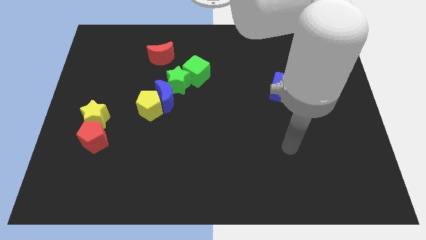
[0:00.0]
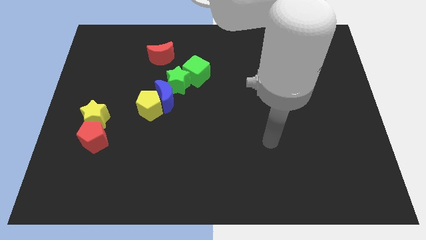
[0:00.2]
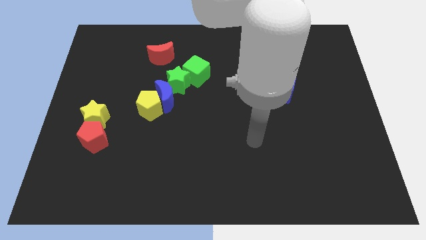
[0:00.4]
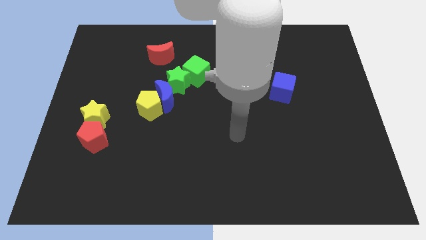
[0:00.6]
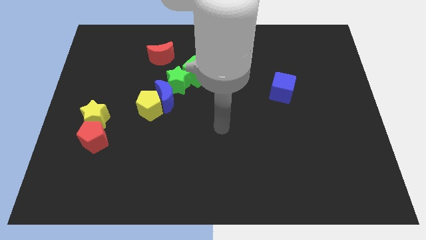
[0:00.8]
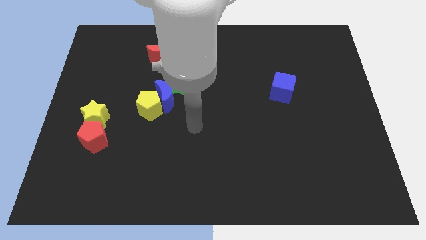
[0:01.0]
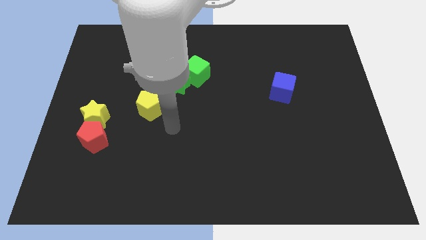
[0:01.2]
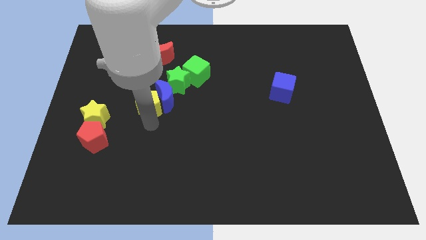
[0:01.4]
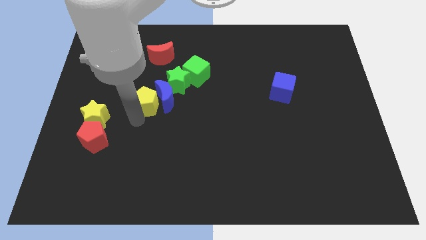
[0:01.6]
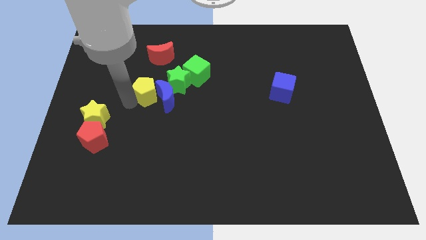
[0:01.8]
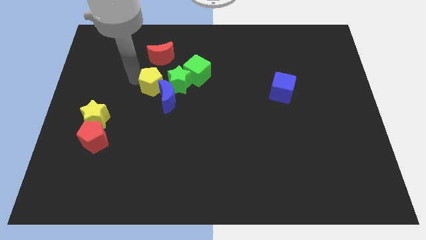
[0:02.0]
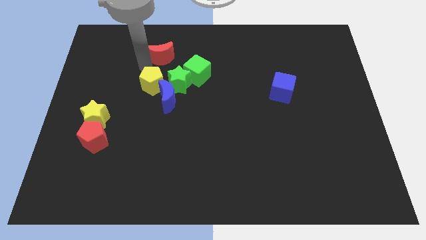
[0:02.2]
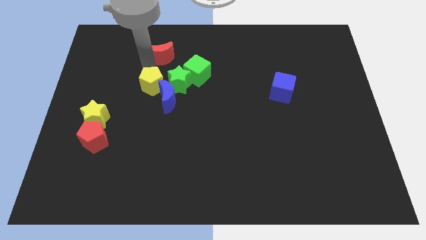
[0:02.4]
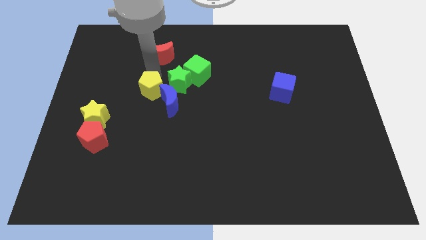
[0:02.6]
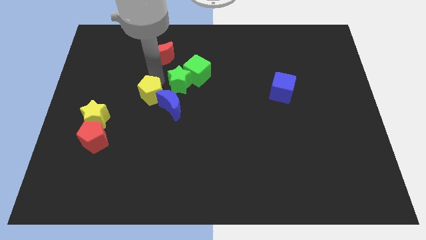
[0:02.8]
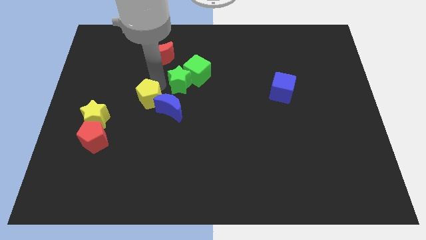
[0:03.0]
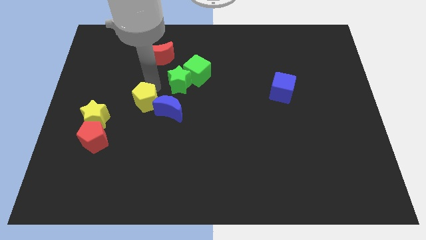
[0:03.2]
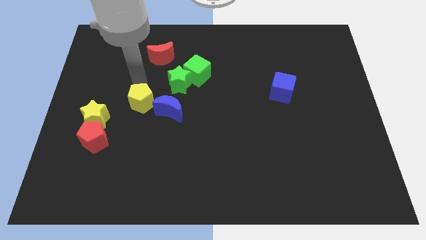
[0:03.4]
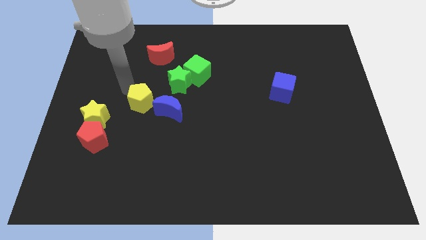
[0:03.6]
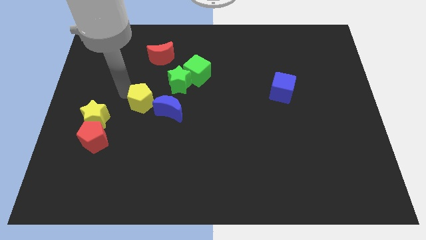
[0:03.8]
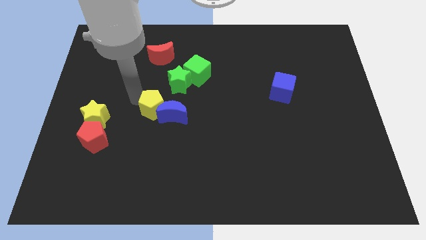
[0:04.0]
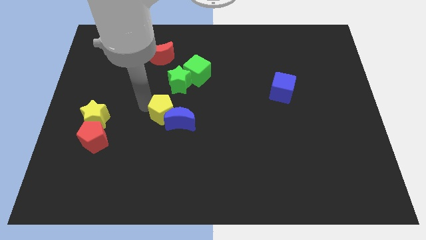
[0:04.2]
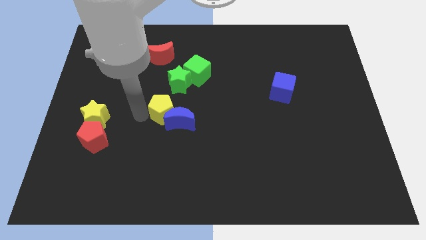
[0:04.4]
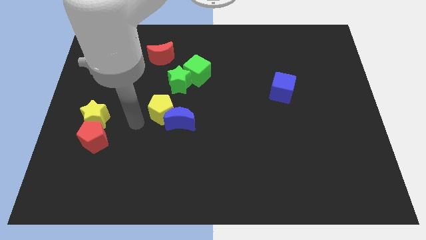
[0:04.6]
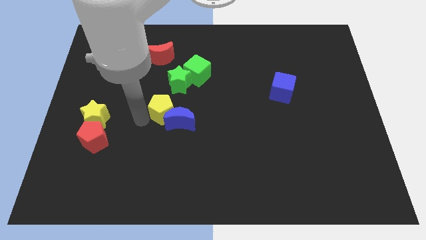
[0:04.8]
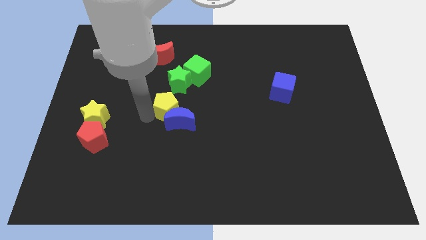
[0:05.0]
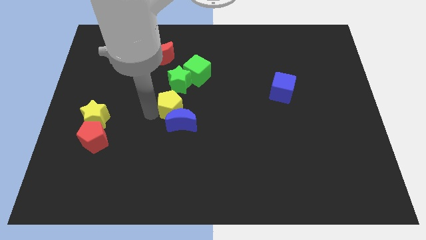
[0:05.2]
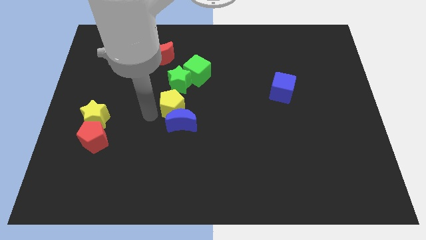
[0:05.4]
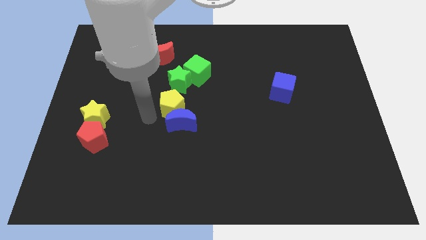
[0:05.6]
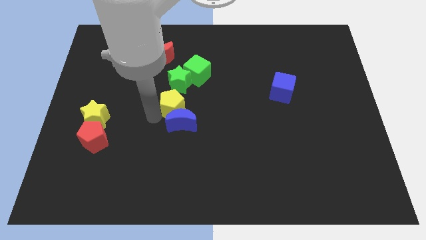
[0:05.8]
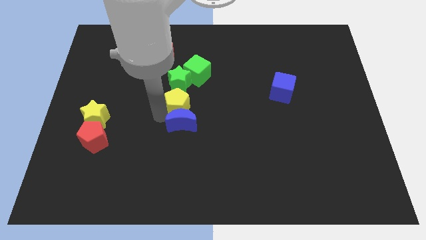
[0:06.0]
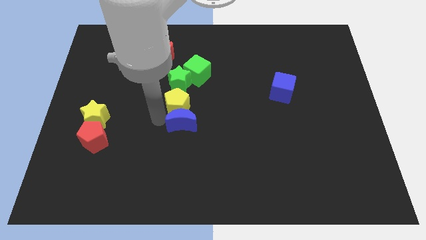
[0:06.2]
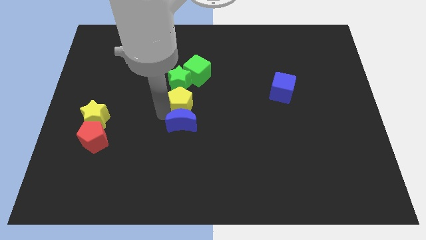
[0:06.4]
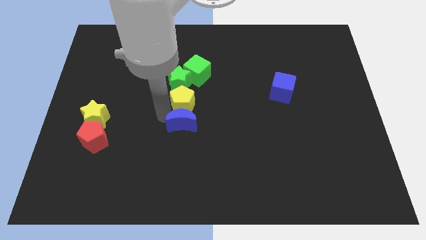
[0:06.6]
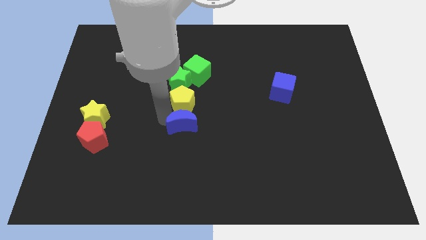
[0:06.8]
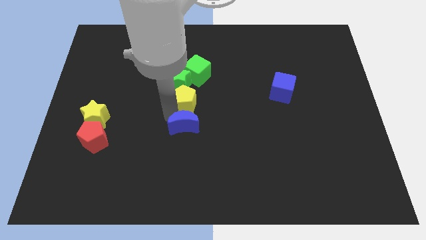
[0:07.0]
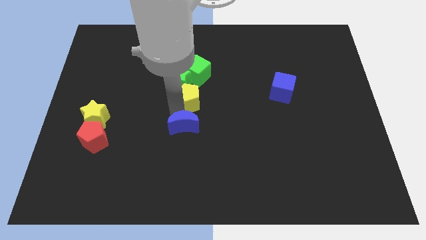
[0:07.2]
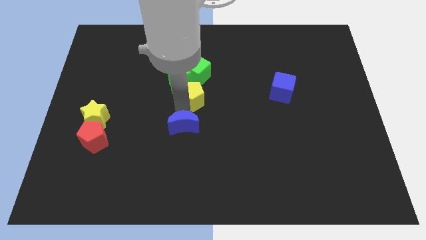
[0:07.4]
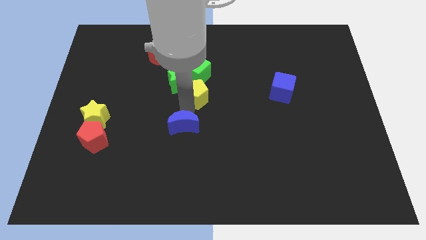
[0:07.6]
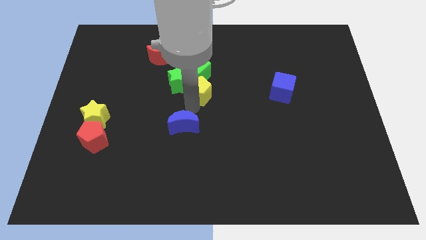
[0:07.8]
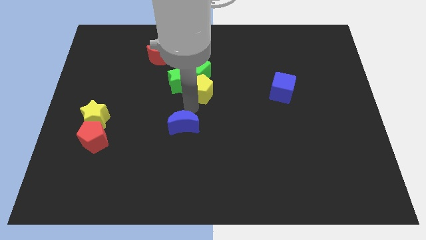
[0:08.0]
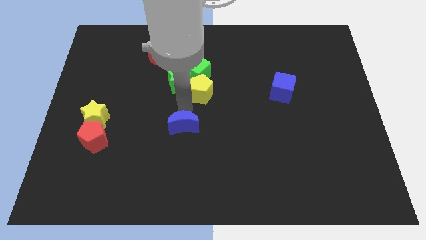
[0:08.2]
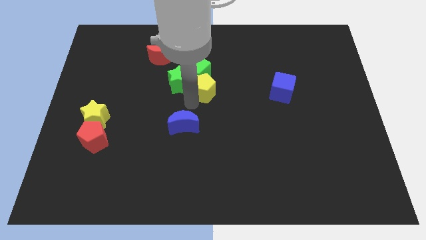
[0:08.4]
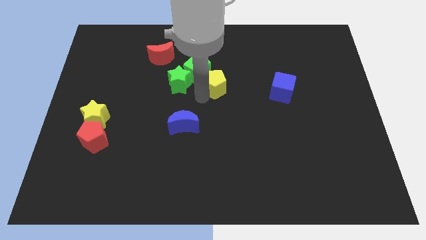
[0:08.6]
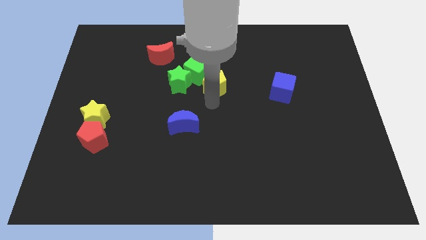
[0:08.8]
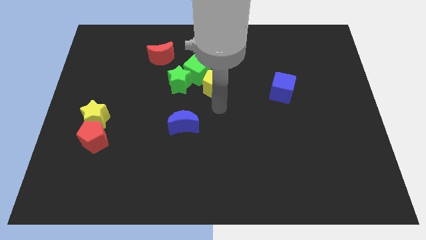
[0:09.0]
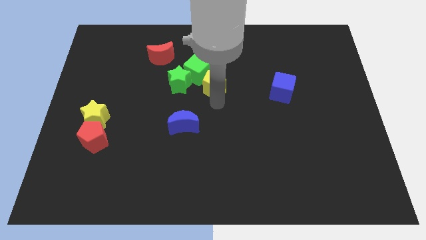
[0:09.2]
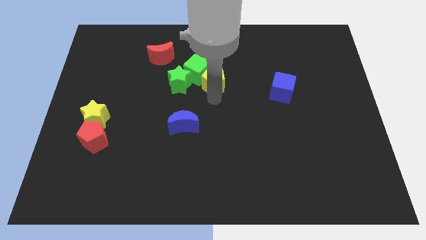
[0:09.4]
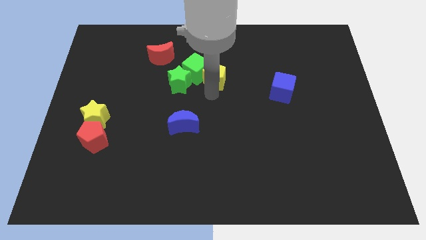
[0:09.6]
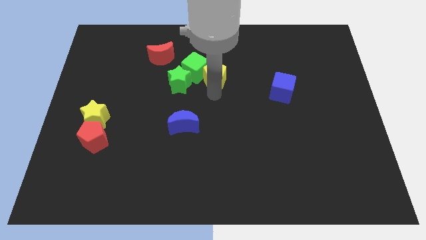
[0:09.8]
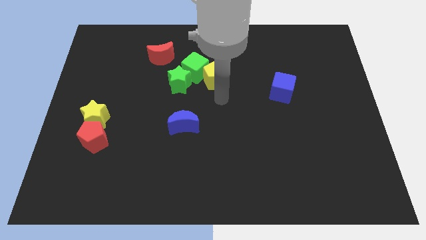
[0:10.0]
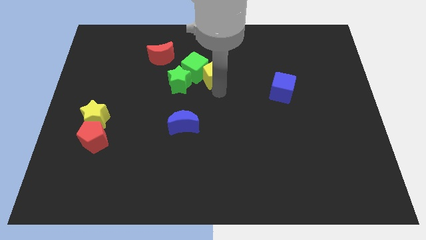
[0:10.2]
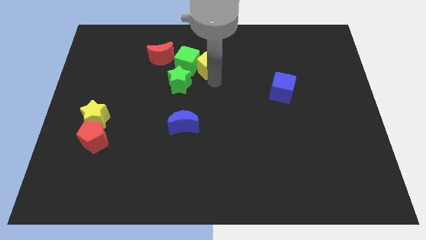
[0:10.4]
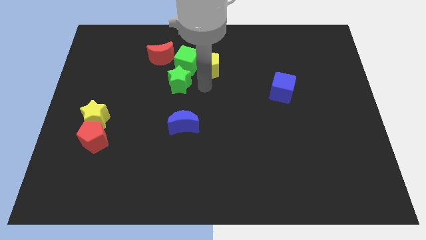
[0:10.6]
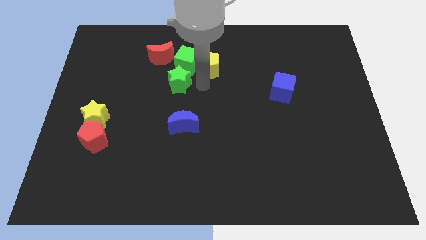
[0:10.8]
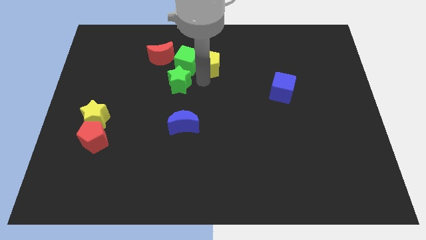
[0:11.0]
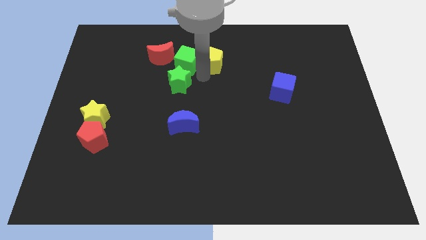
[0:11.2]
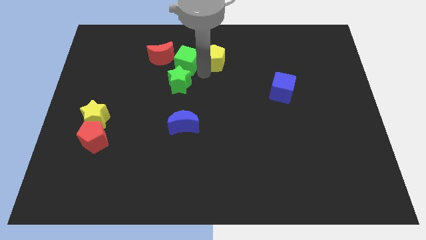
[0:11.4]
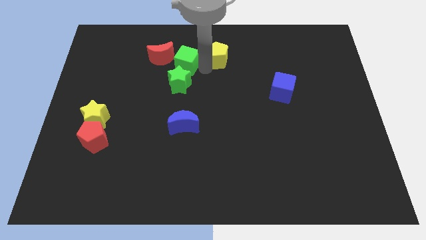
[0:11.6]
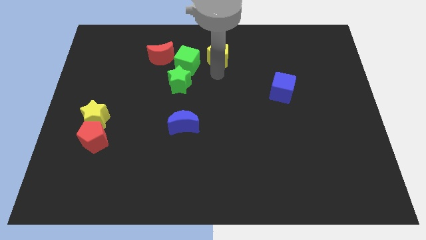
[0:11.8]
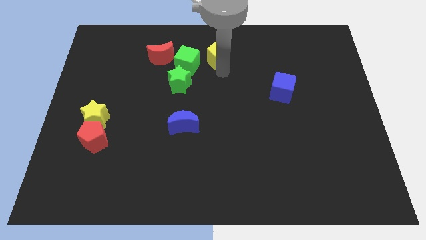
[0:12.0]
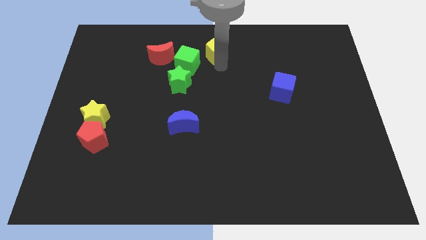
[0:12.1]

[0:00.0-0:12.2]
put the yellow pentagon to the top

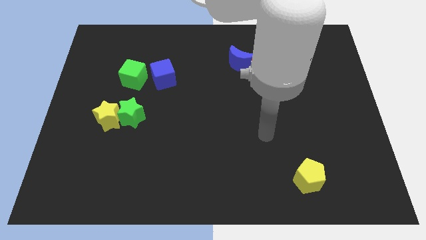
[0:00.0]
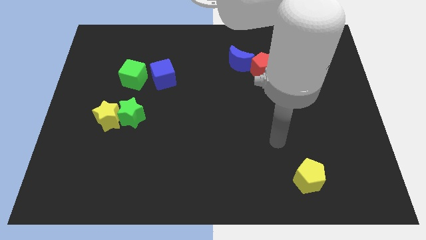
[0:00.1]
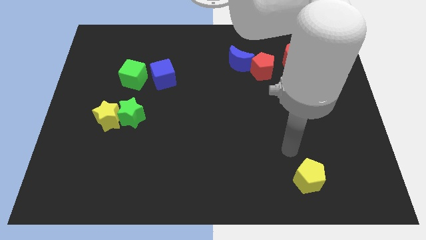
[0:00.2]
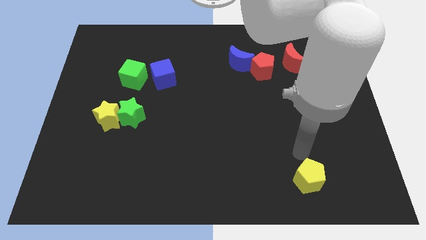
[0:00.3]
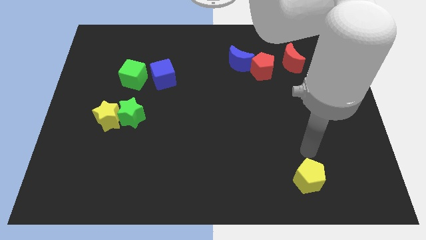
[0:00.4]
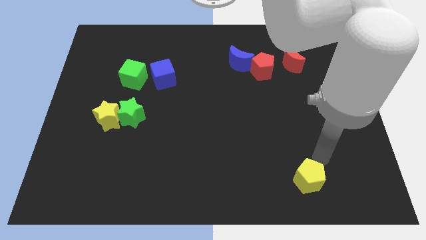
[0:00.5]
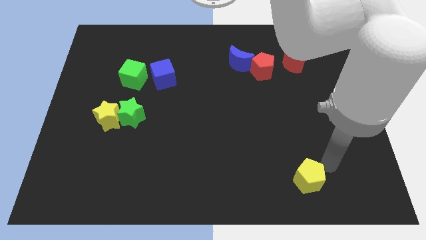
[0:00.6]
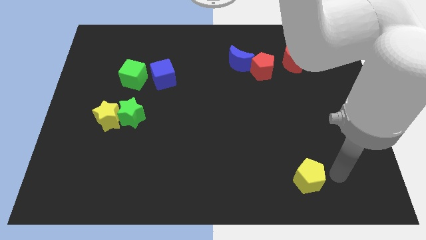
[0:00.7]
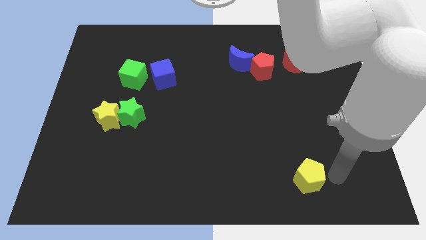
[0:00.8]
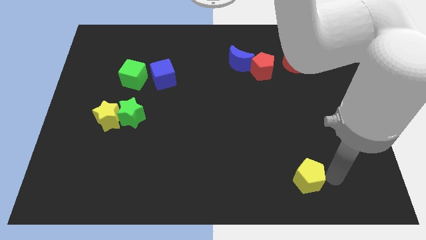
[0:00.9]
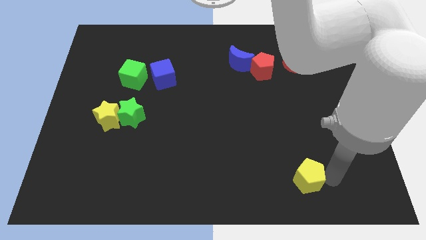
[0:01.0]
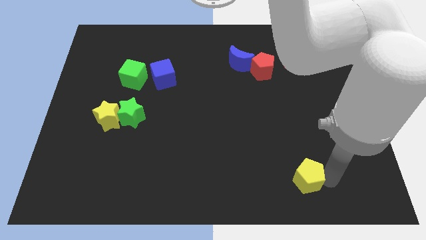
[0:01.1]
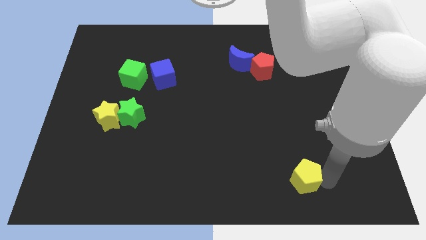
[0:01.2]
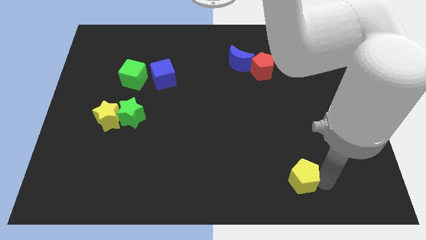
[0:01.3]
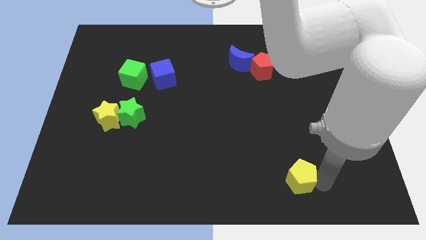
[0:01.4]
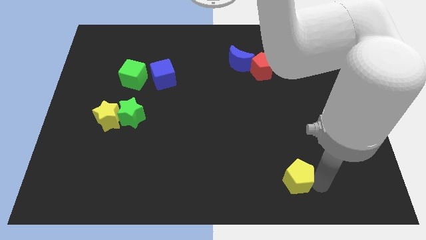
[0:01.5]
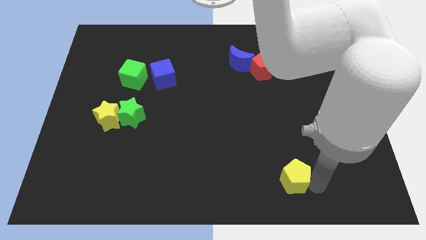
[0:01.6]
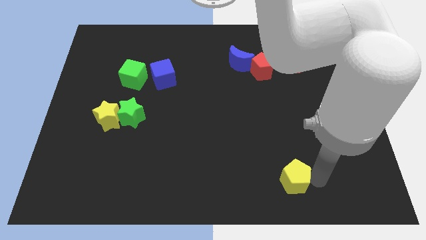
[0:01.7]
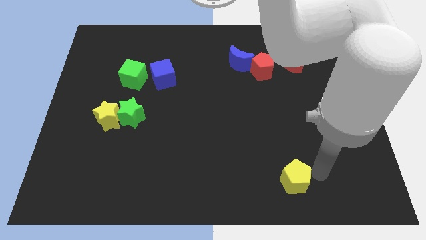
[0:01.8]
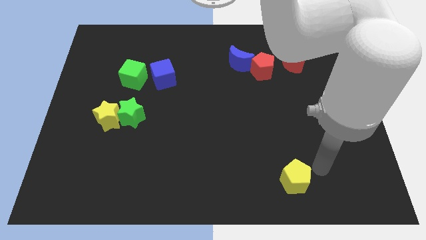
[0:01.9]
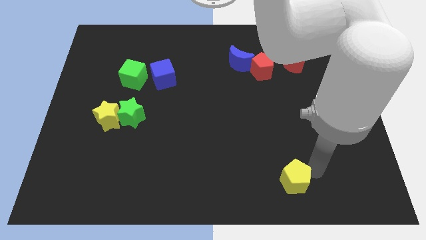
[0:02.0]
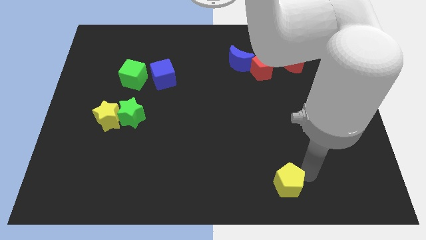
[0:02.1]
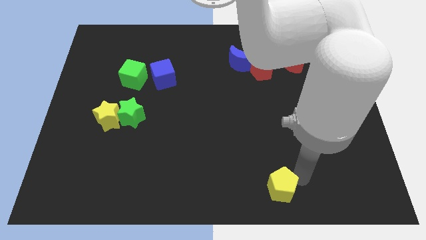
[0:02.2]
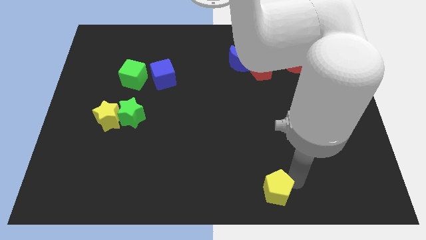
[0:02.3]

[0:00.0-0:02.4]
move the yellow pentagon to the bottom side
